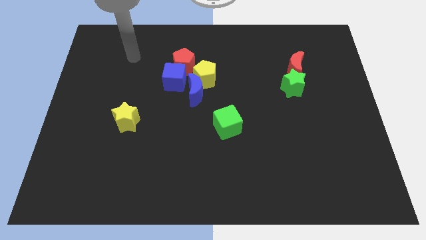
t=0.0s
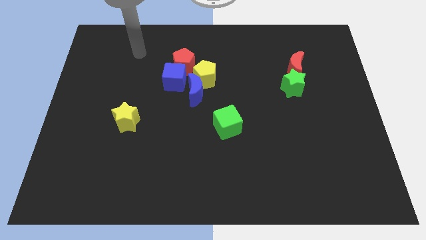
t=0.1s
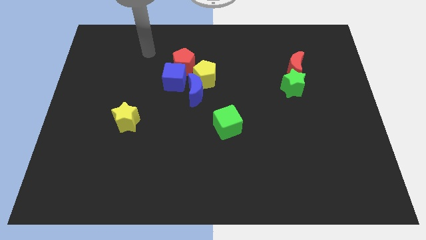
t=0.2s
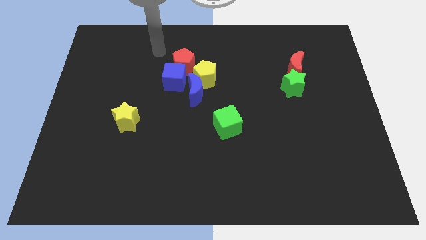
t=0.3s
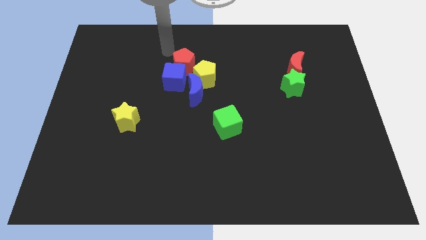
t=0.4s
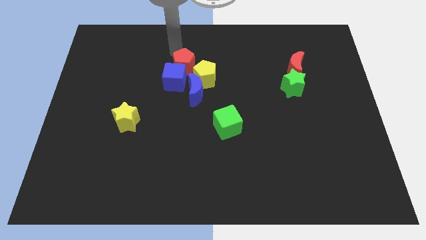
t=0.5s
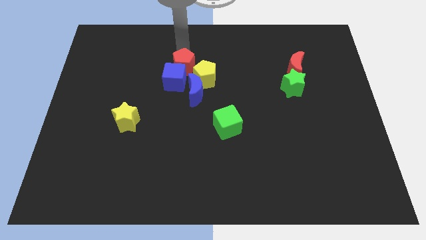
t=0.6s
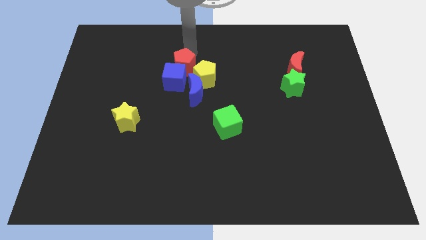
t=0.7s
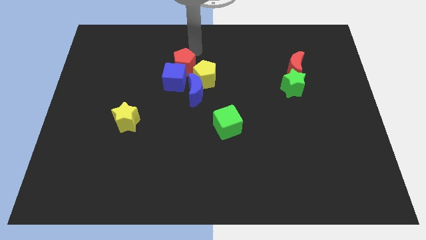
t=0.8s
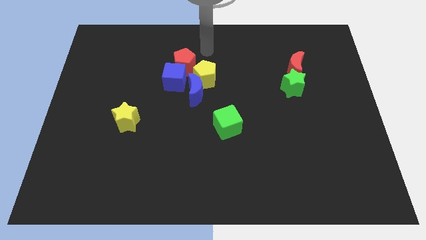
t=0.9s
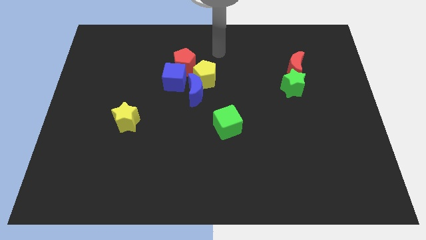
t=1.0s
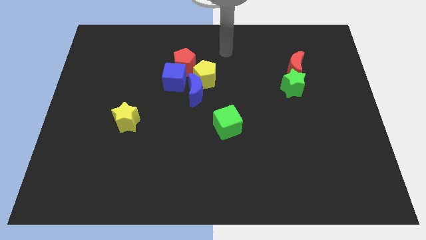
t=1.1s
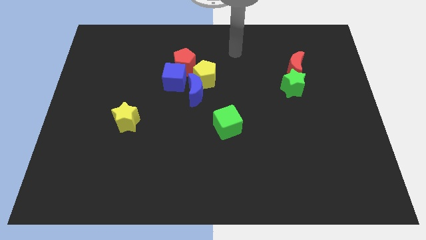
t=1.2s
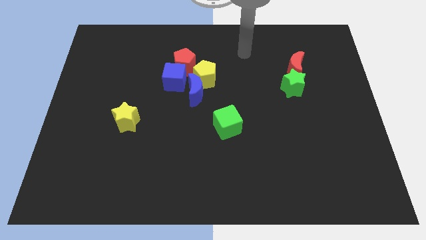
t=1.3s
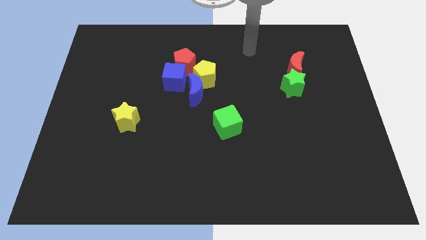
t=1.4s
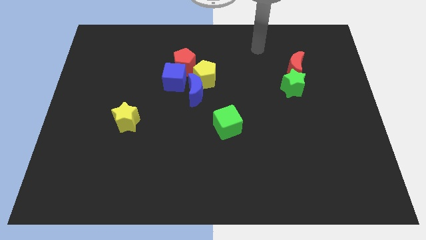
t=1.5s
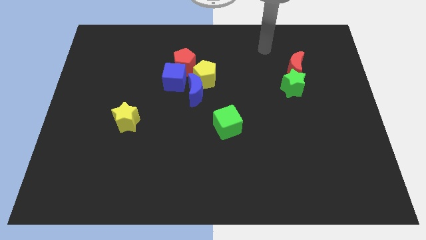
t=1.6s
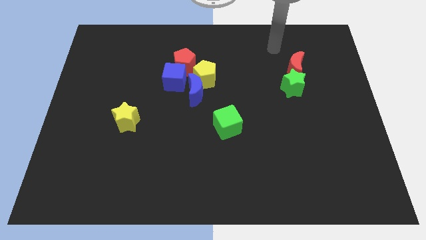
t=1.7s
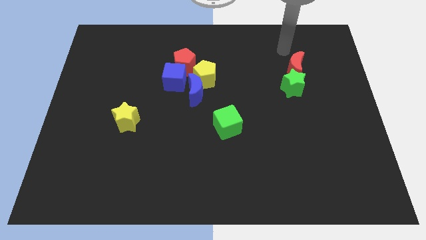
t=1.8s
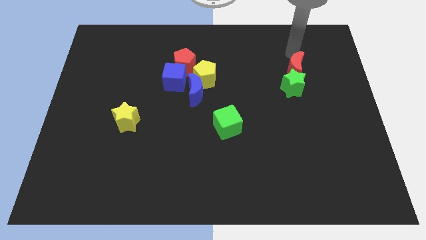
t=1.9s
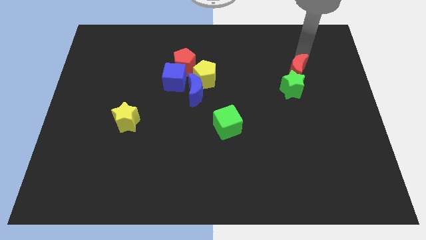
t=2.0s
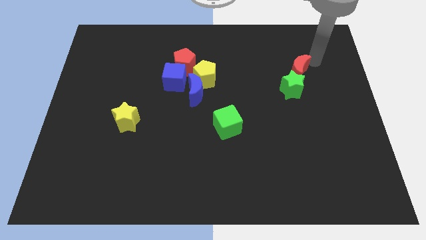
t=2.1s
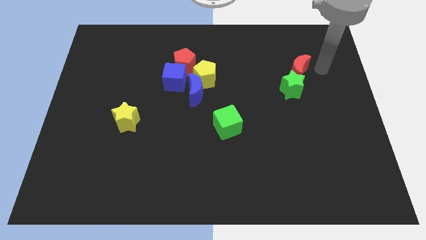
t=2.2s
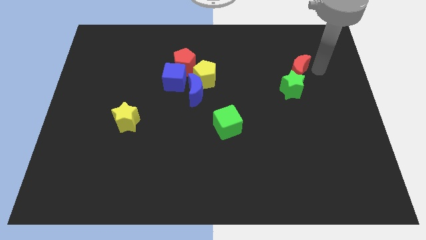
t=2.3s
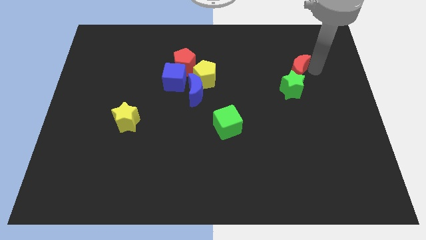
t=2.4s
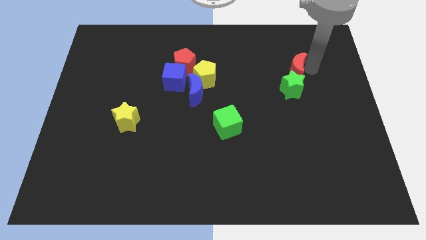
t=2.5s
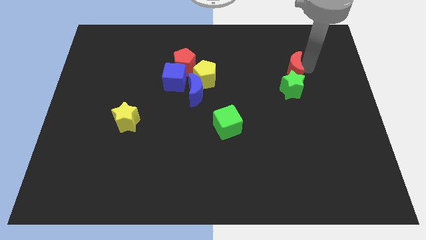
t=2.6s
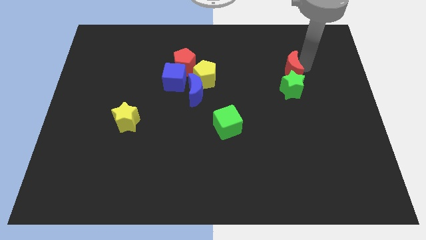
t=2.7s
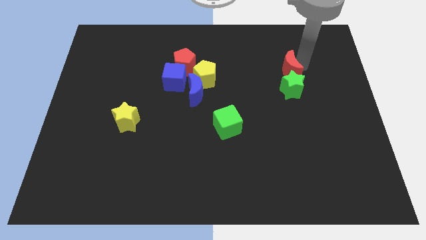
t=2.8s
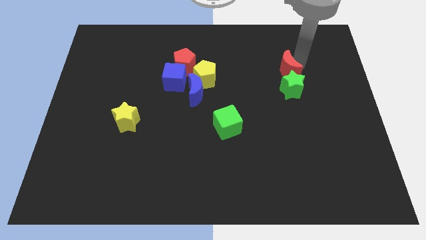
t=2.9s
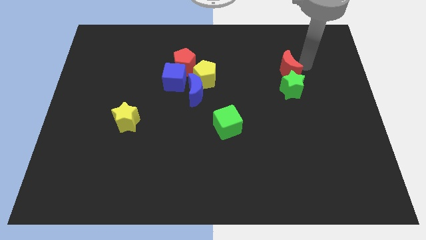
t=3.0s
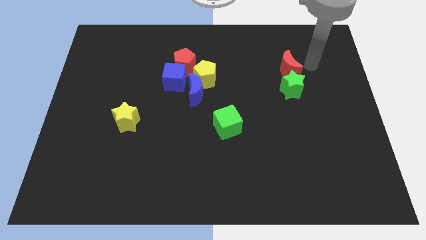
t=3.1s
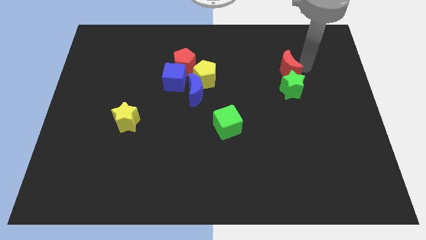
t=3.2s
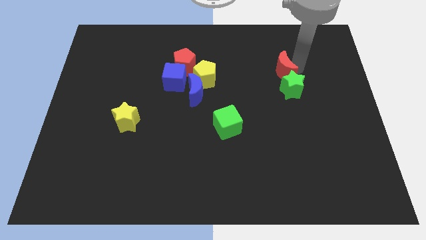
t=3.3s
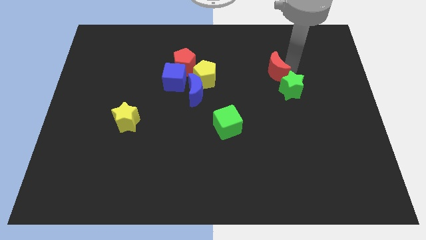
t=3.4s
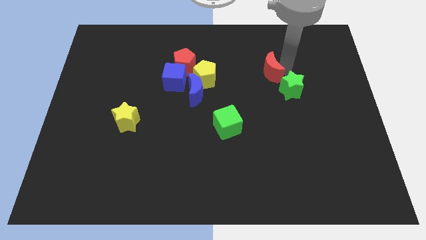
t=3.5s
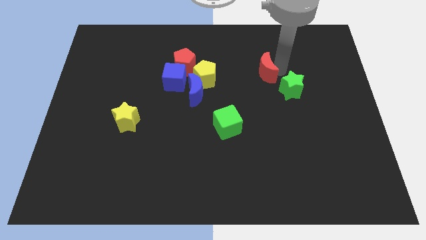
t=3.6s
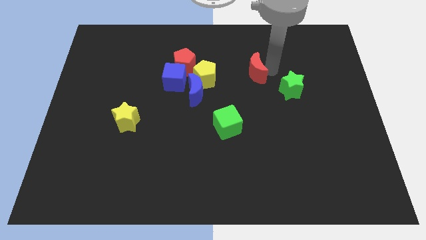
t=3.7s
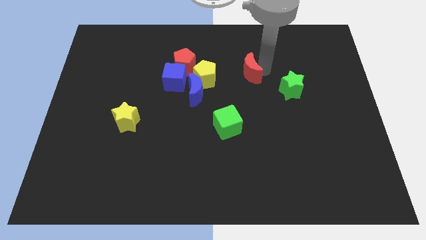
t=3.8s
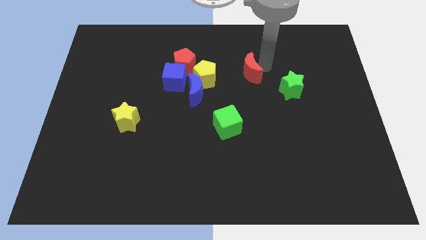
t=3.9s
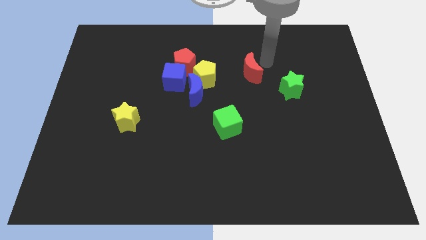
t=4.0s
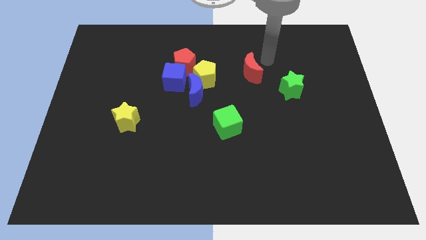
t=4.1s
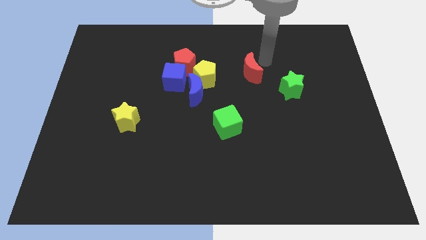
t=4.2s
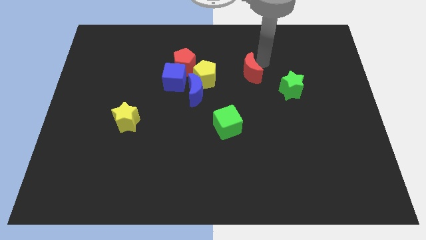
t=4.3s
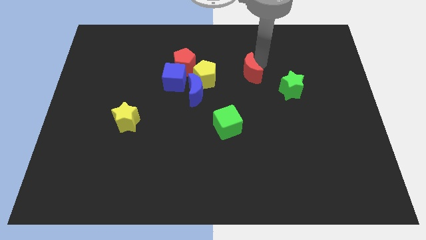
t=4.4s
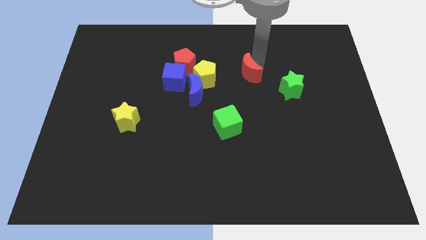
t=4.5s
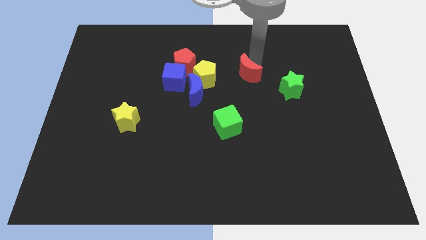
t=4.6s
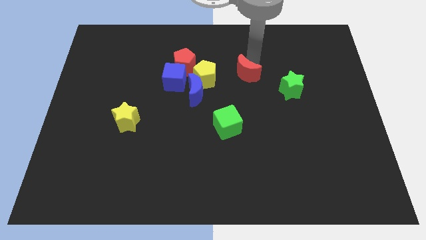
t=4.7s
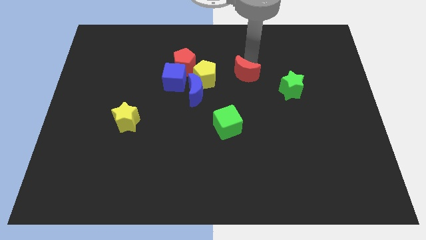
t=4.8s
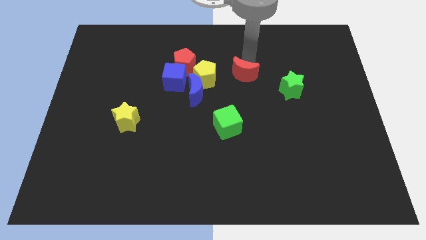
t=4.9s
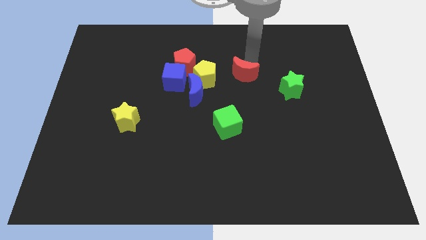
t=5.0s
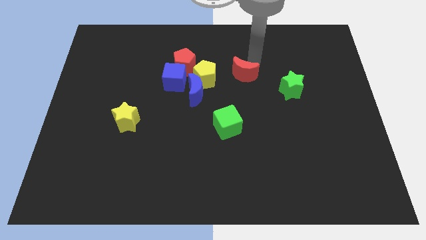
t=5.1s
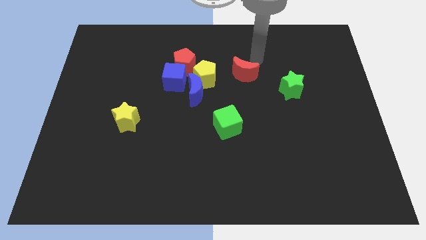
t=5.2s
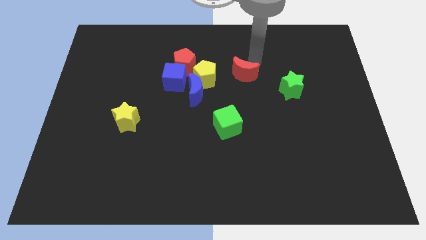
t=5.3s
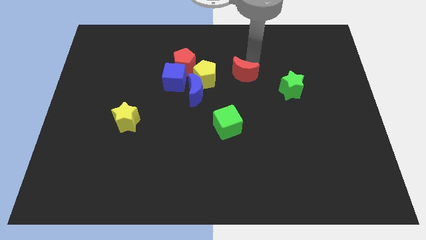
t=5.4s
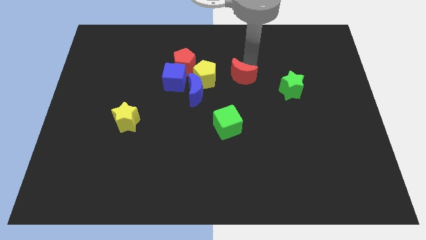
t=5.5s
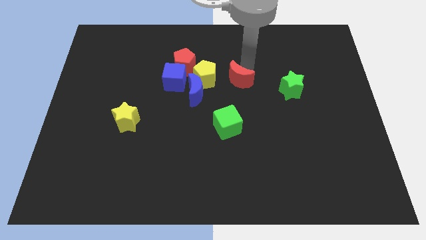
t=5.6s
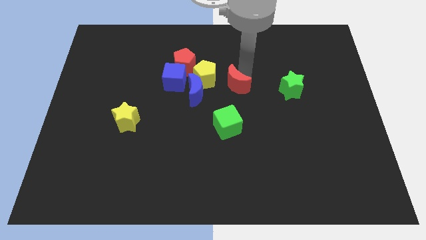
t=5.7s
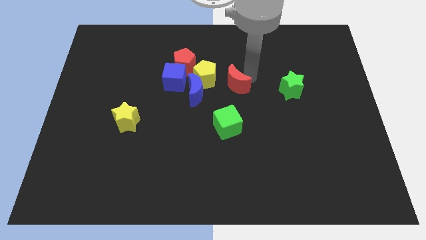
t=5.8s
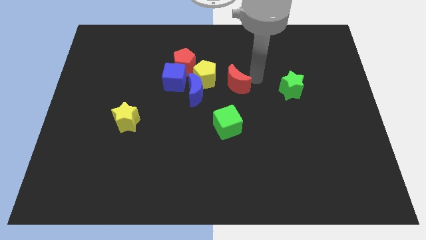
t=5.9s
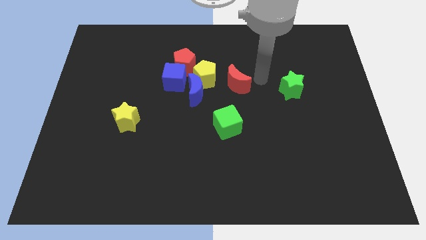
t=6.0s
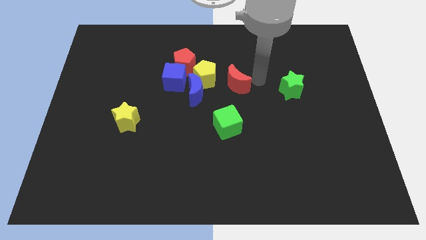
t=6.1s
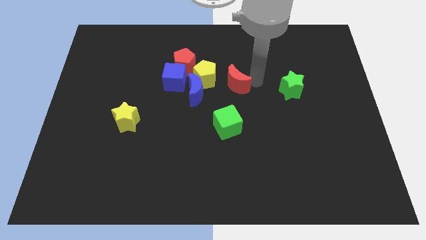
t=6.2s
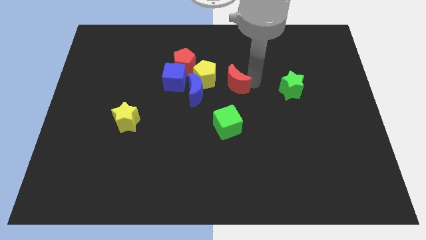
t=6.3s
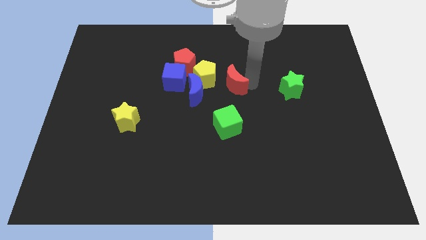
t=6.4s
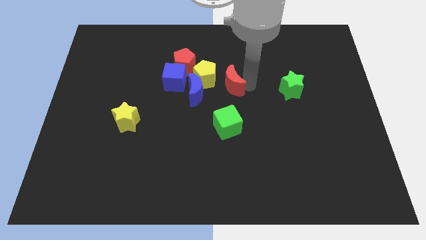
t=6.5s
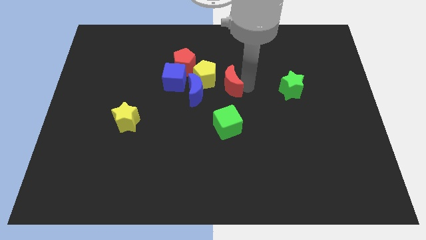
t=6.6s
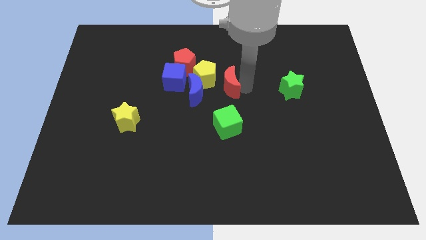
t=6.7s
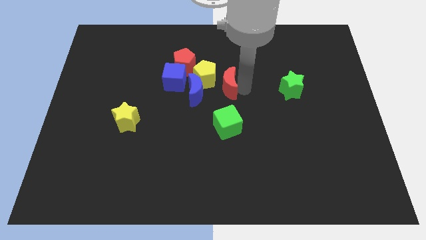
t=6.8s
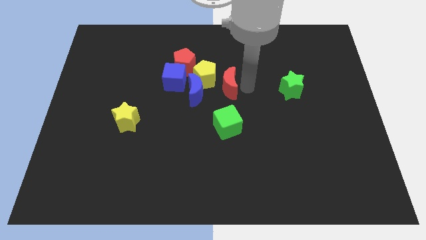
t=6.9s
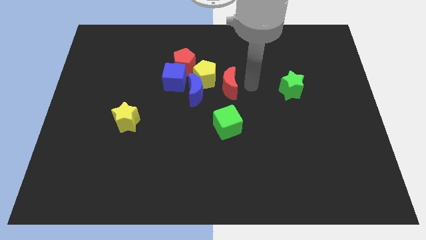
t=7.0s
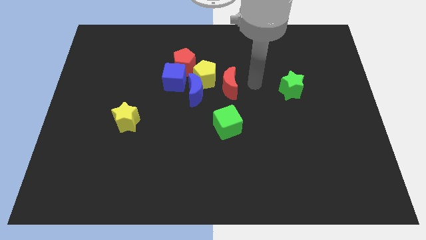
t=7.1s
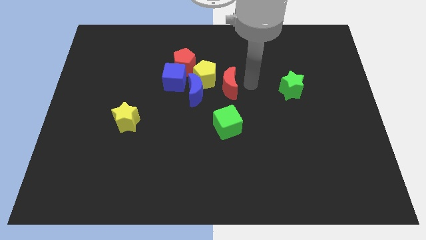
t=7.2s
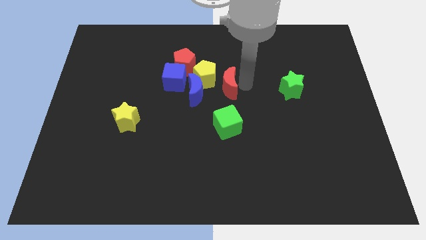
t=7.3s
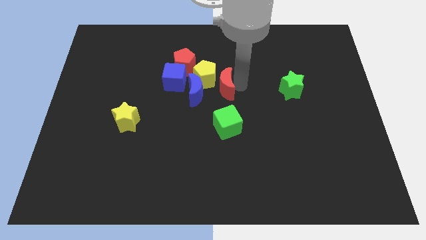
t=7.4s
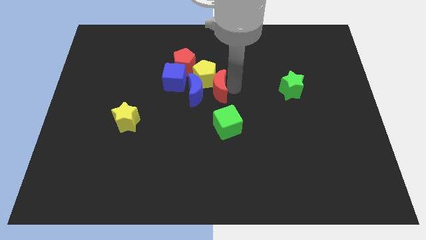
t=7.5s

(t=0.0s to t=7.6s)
move the red moon to the bottom right side of the red pentagon
